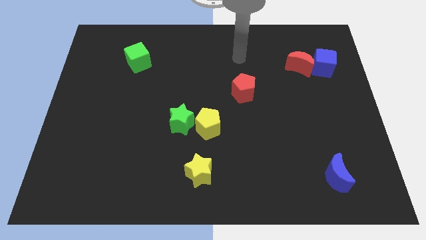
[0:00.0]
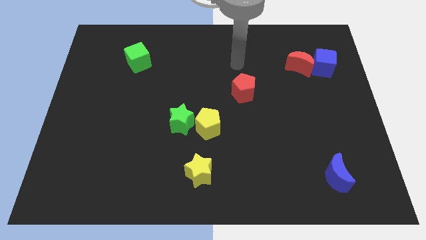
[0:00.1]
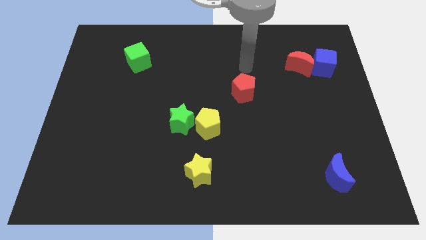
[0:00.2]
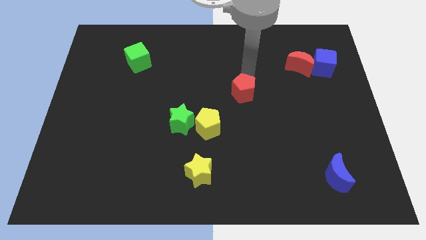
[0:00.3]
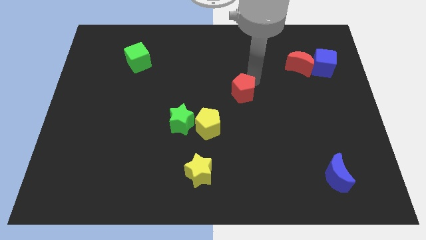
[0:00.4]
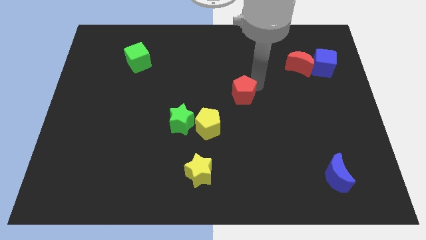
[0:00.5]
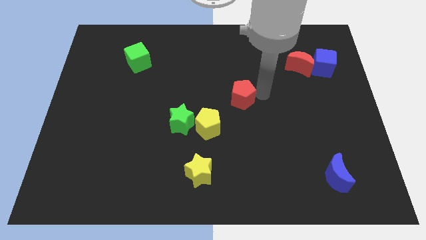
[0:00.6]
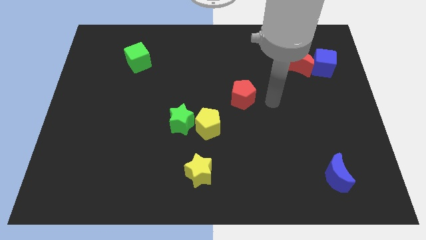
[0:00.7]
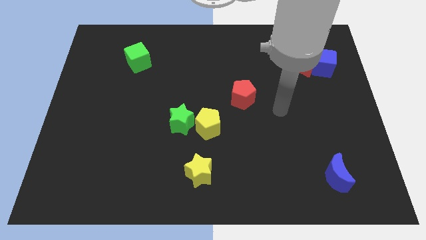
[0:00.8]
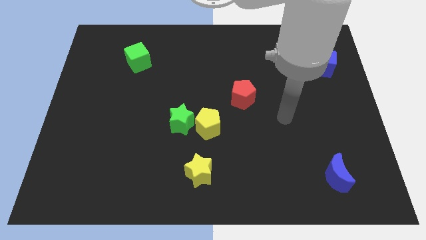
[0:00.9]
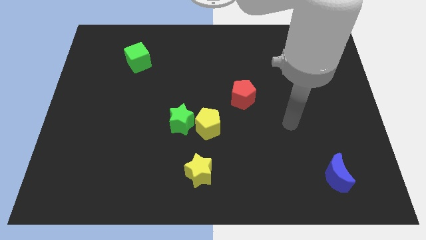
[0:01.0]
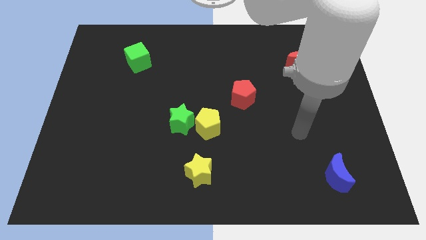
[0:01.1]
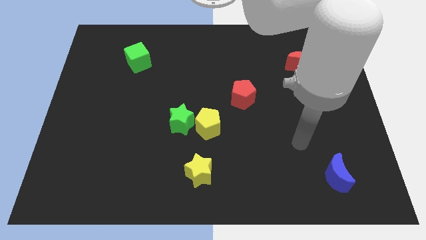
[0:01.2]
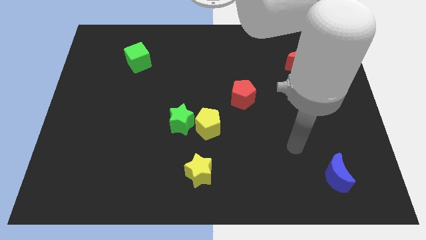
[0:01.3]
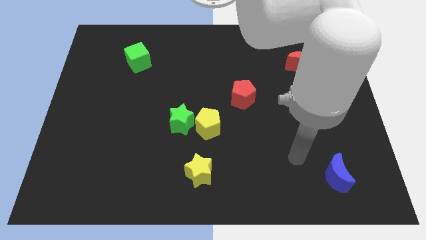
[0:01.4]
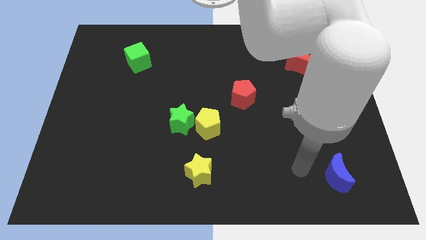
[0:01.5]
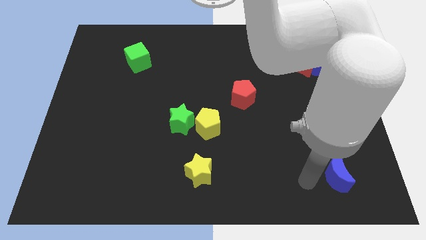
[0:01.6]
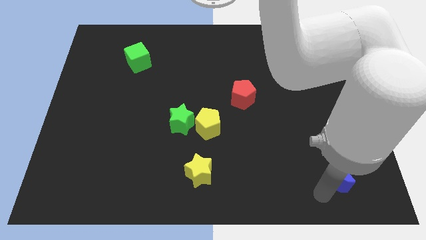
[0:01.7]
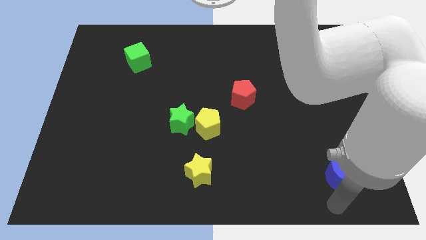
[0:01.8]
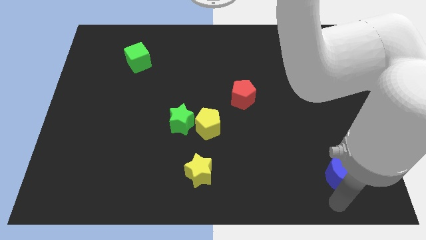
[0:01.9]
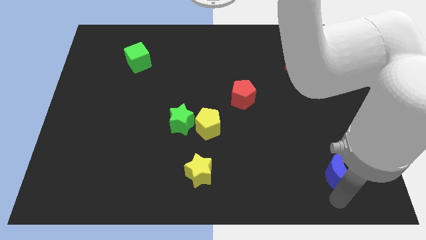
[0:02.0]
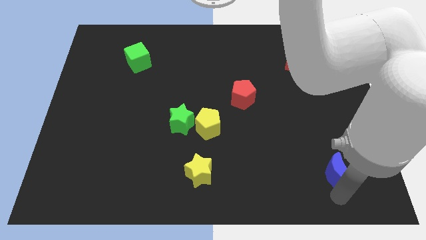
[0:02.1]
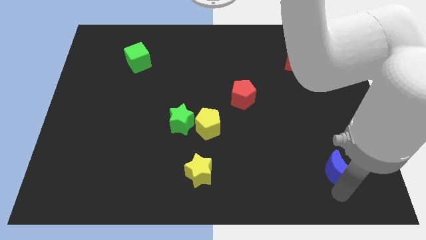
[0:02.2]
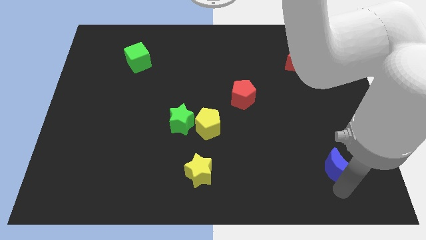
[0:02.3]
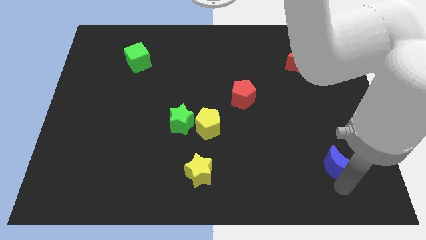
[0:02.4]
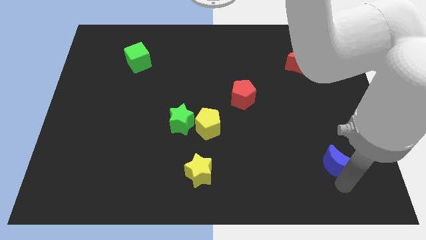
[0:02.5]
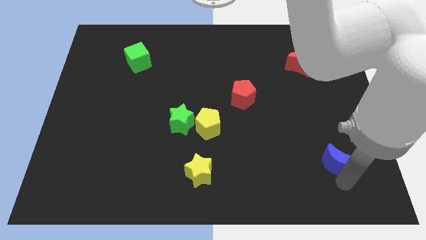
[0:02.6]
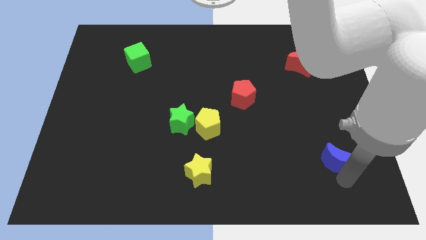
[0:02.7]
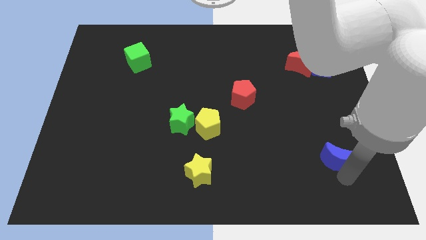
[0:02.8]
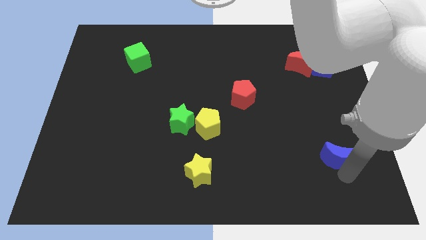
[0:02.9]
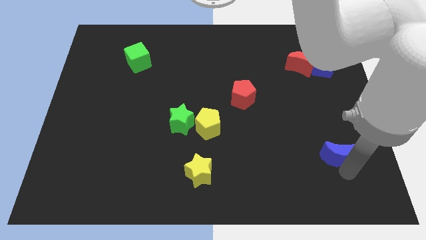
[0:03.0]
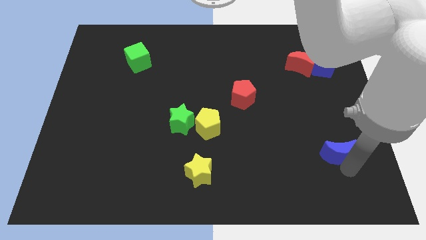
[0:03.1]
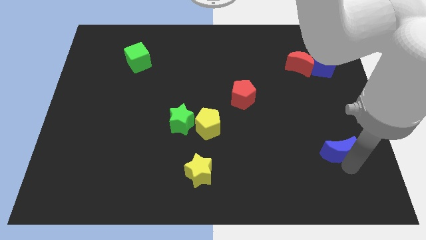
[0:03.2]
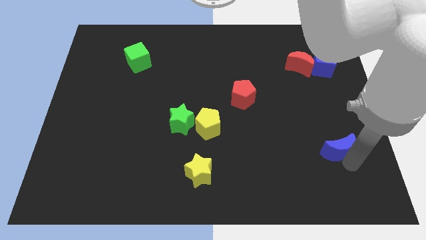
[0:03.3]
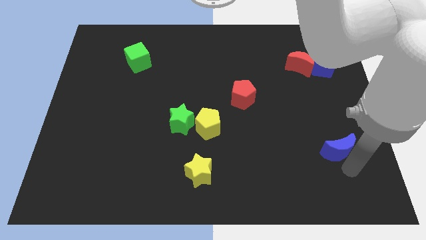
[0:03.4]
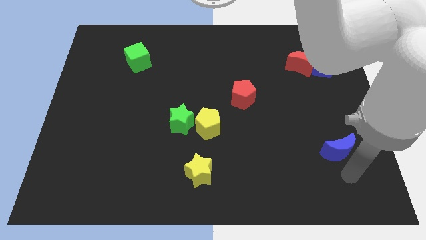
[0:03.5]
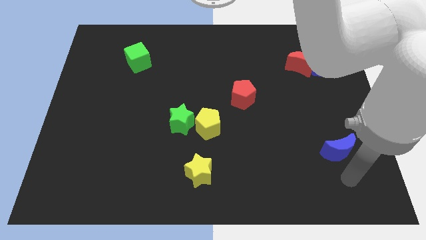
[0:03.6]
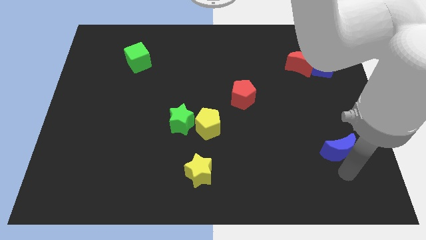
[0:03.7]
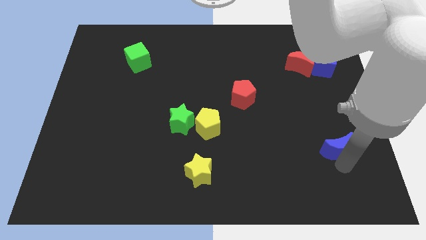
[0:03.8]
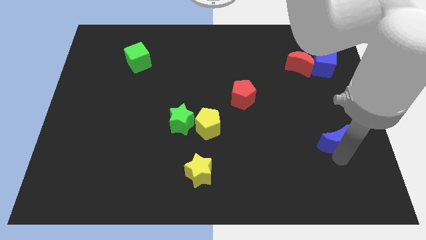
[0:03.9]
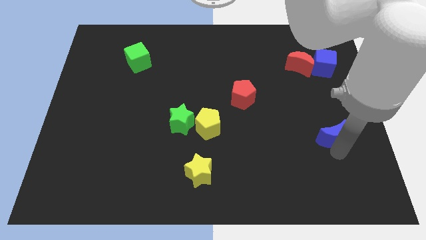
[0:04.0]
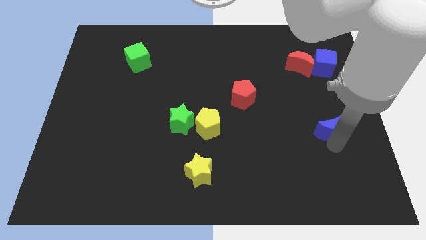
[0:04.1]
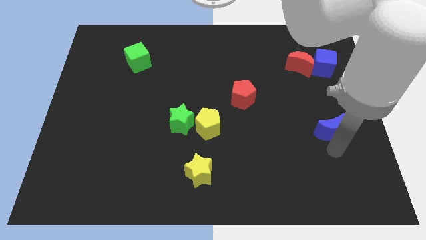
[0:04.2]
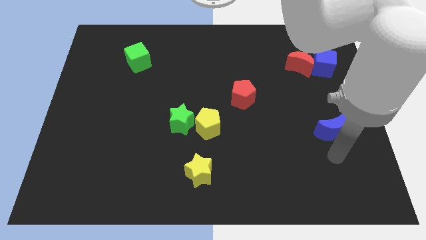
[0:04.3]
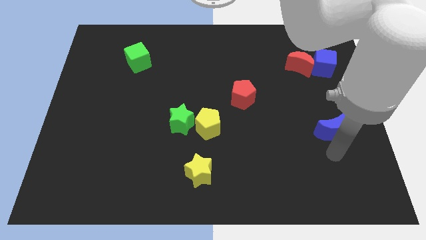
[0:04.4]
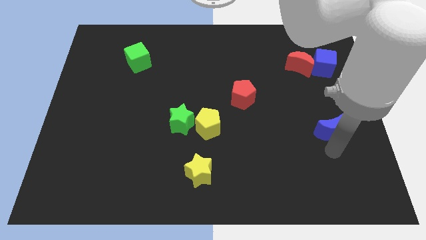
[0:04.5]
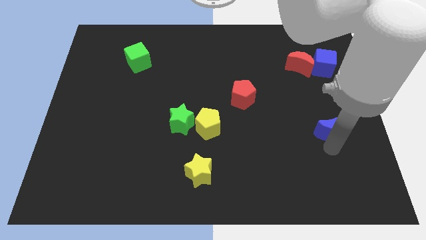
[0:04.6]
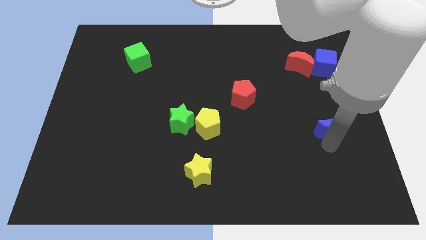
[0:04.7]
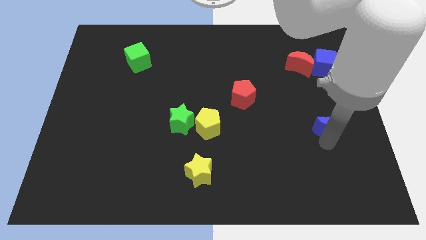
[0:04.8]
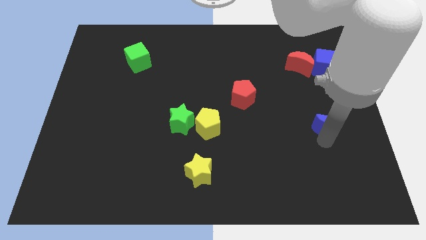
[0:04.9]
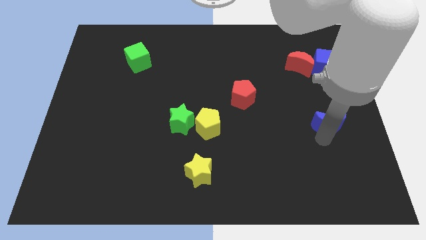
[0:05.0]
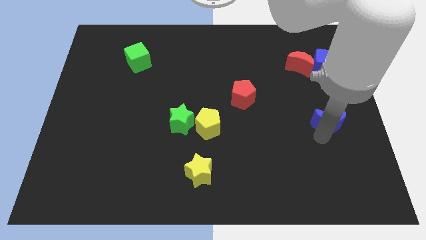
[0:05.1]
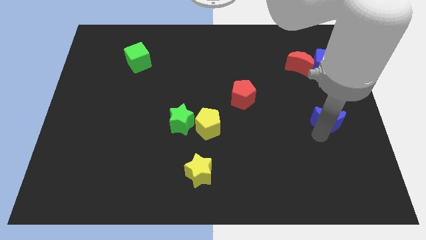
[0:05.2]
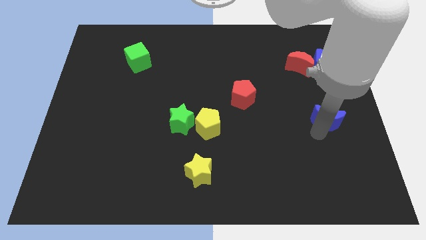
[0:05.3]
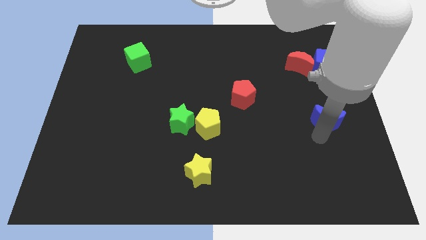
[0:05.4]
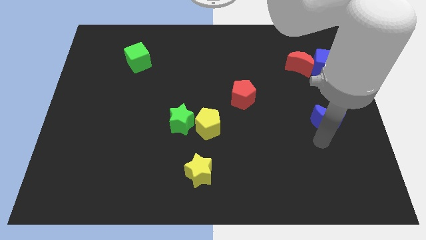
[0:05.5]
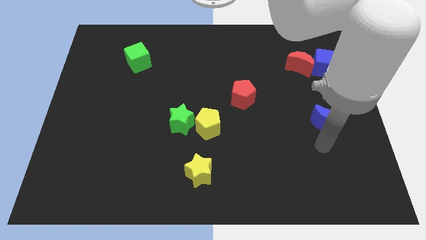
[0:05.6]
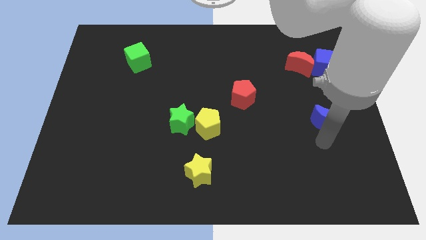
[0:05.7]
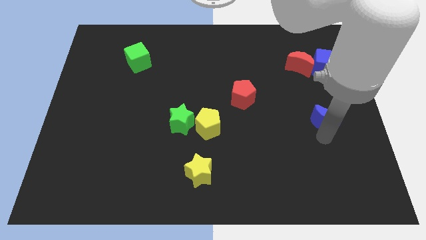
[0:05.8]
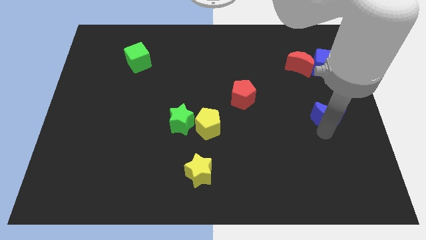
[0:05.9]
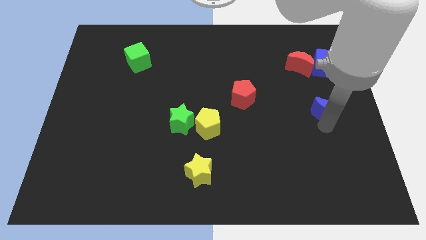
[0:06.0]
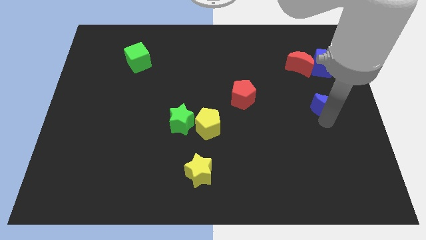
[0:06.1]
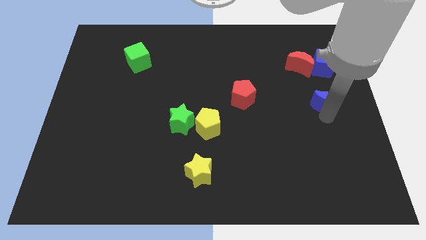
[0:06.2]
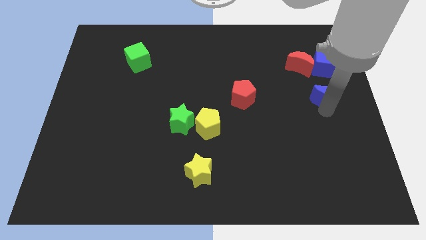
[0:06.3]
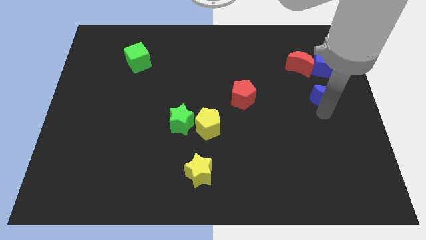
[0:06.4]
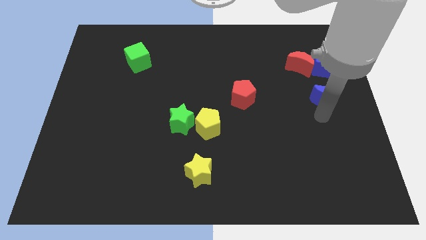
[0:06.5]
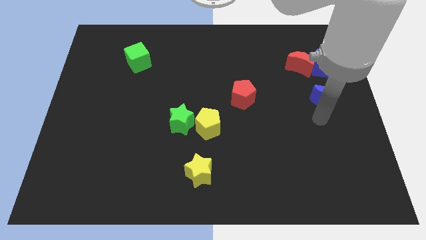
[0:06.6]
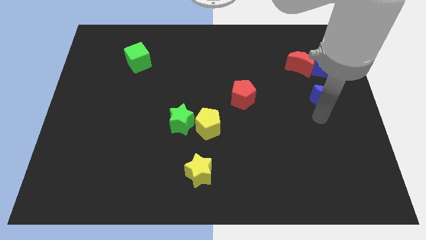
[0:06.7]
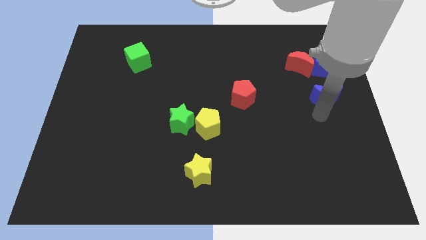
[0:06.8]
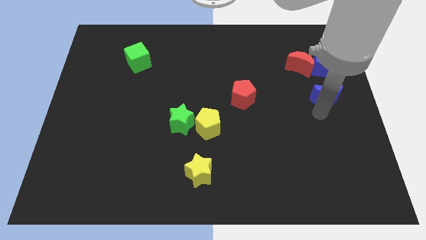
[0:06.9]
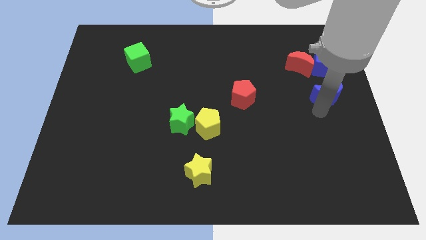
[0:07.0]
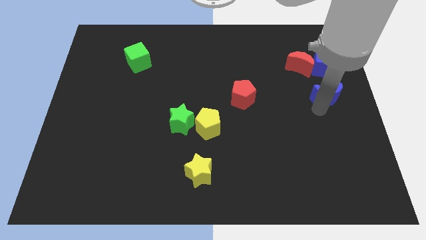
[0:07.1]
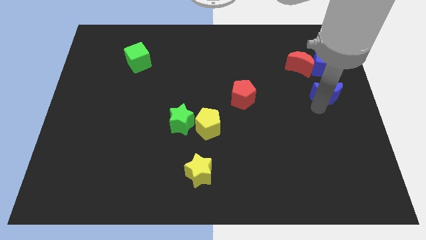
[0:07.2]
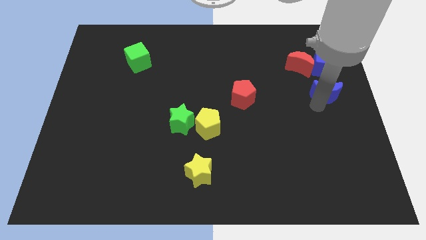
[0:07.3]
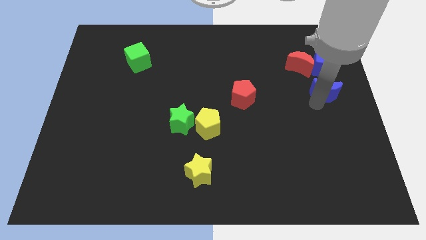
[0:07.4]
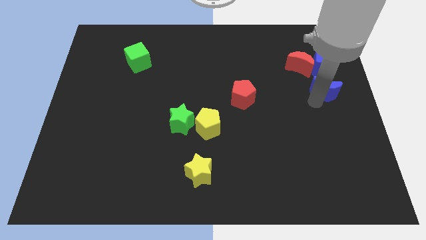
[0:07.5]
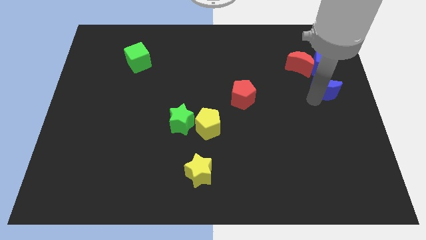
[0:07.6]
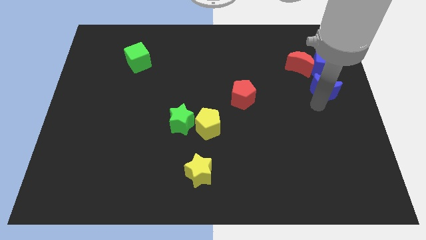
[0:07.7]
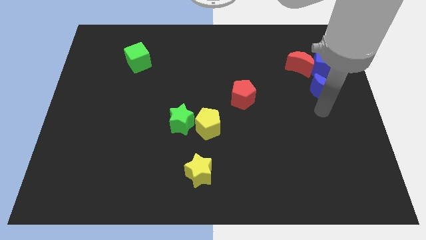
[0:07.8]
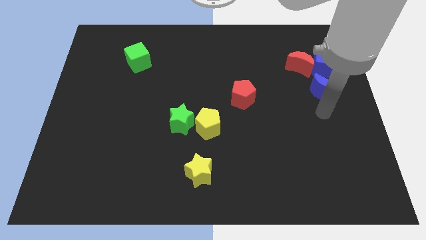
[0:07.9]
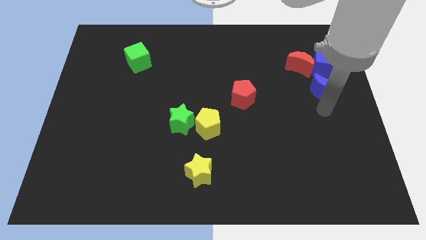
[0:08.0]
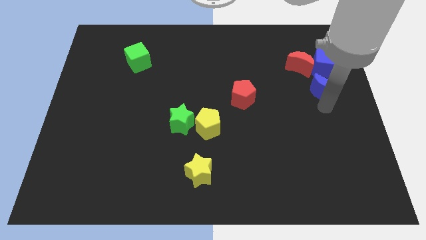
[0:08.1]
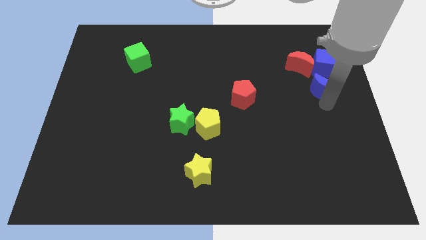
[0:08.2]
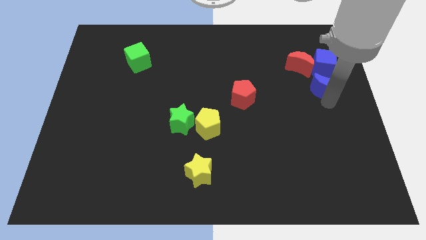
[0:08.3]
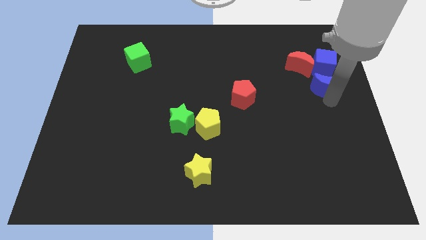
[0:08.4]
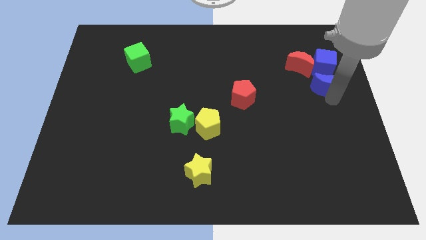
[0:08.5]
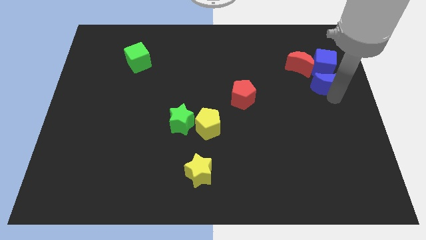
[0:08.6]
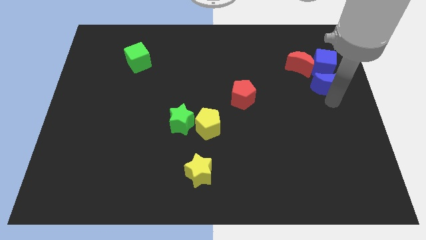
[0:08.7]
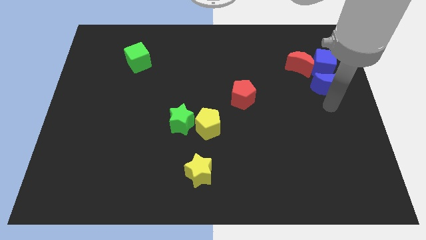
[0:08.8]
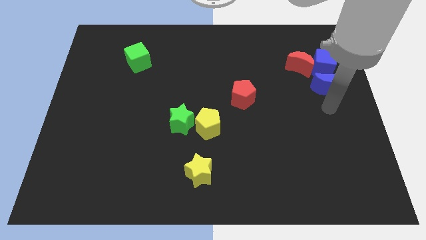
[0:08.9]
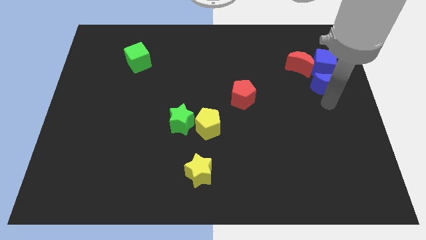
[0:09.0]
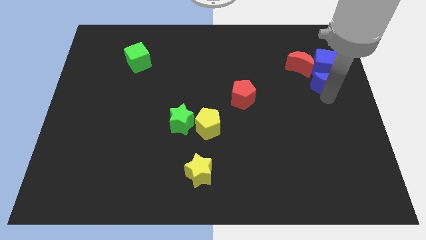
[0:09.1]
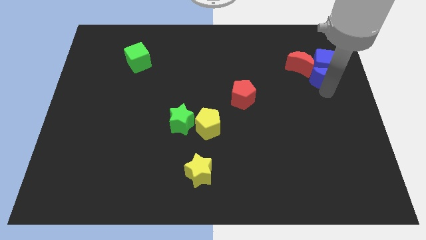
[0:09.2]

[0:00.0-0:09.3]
put the blue moon to the blue cube
